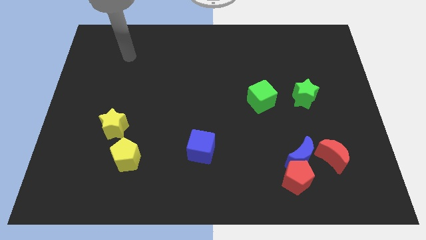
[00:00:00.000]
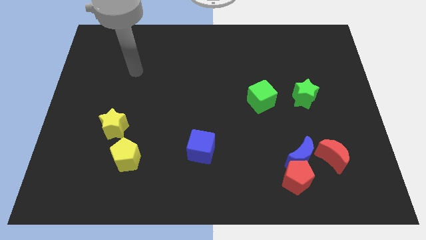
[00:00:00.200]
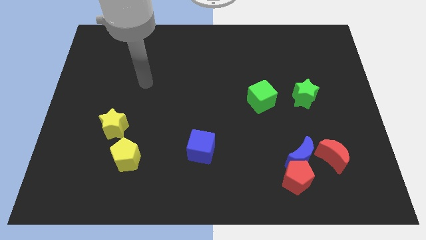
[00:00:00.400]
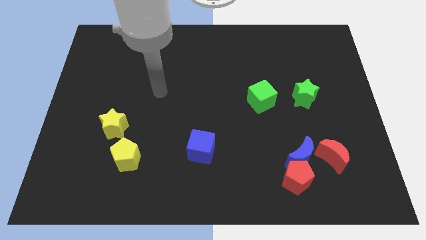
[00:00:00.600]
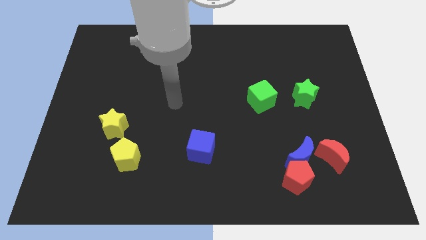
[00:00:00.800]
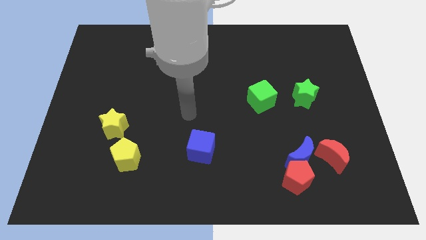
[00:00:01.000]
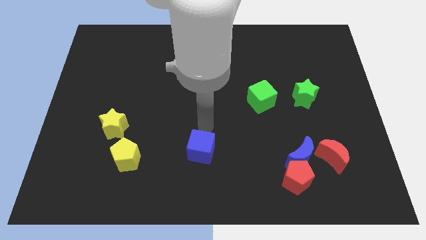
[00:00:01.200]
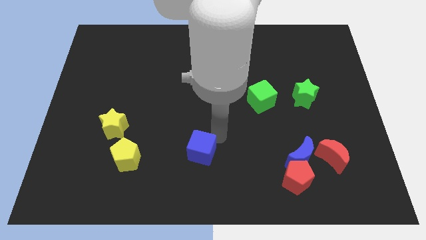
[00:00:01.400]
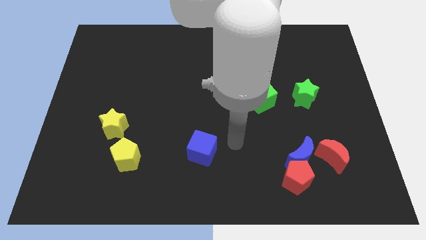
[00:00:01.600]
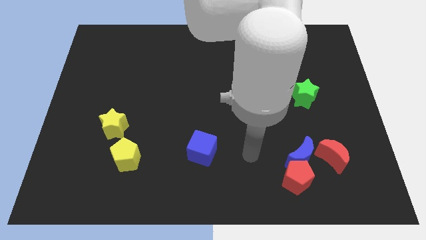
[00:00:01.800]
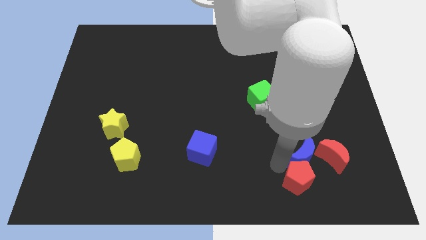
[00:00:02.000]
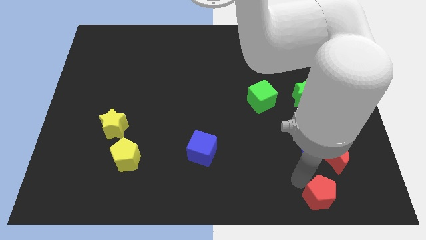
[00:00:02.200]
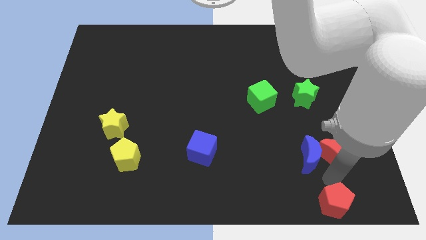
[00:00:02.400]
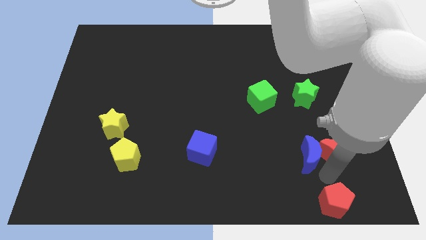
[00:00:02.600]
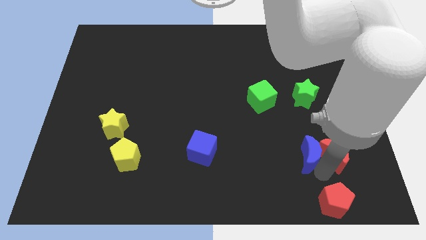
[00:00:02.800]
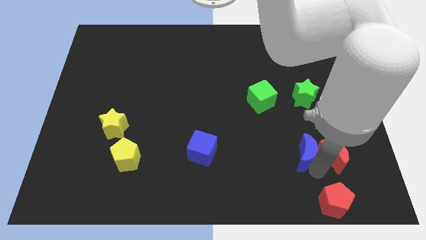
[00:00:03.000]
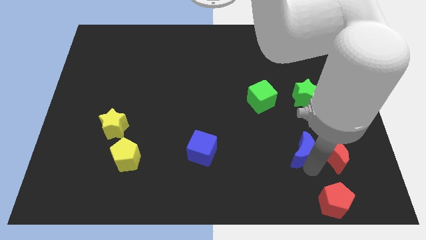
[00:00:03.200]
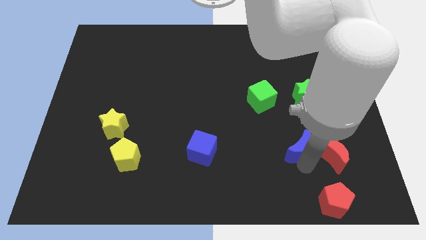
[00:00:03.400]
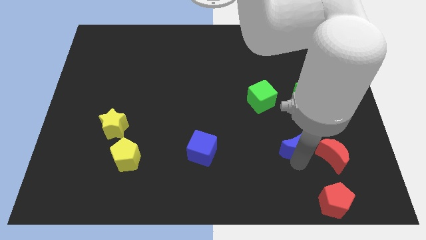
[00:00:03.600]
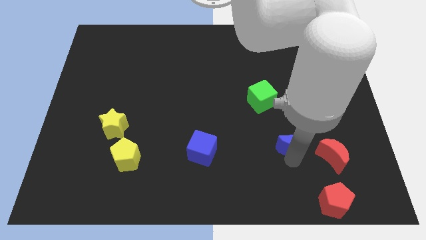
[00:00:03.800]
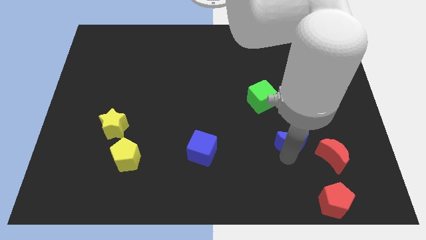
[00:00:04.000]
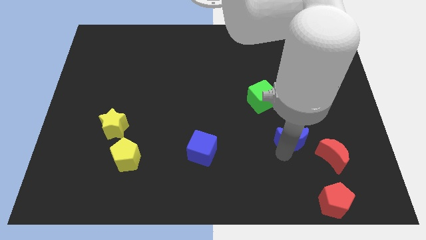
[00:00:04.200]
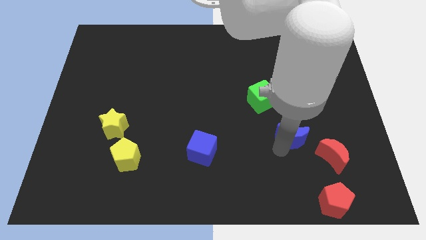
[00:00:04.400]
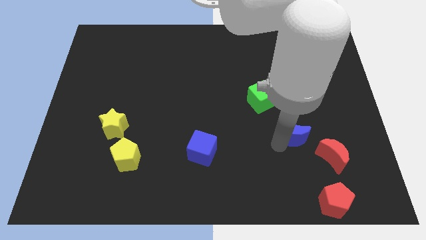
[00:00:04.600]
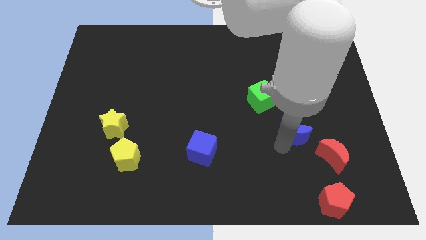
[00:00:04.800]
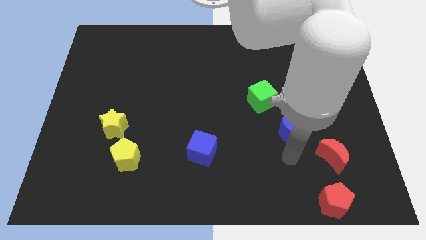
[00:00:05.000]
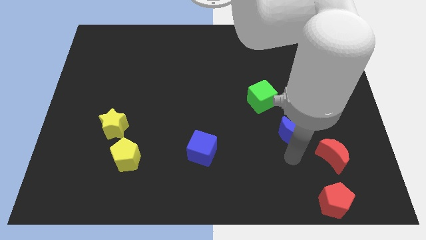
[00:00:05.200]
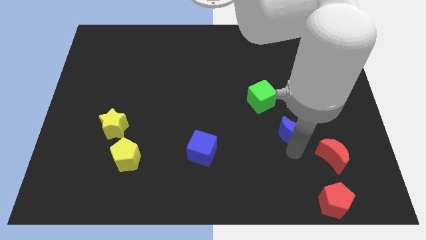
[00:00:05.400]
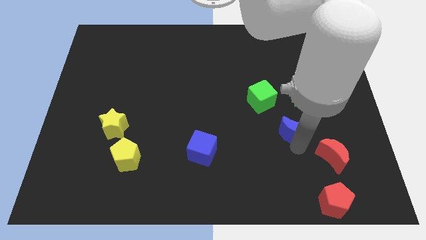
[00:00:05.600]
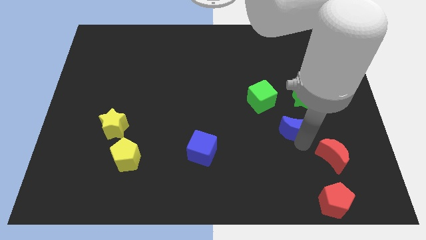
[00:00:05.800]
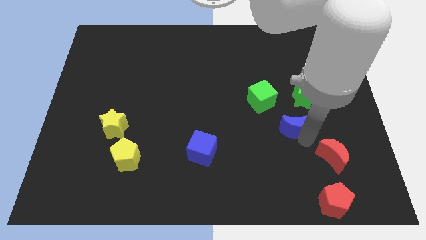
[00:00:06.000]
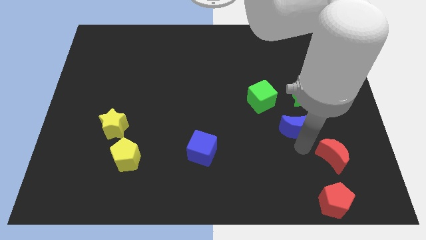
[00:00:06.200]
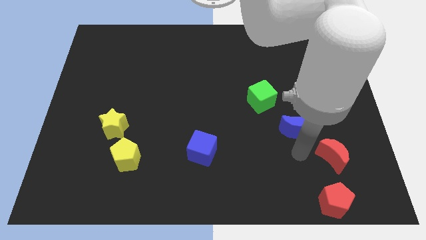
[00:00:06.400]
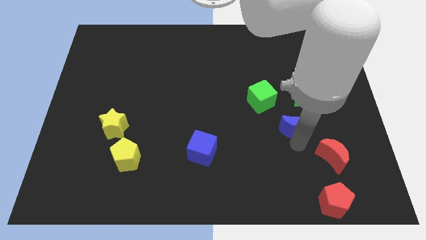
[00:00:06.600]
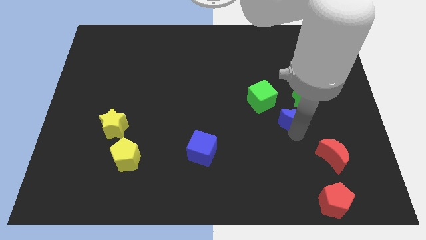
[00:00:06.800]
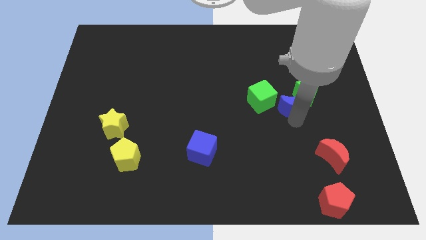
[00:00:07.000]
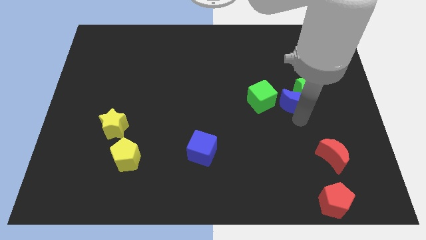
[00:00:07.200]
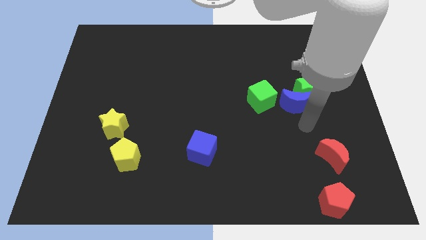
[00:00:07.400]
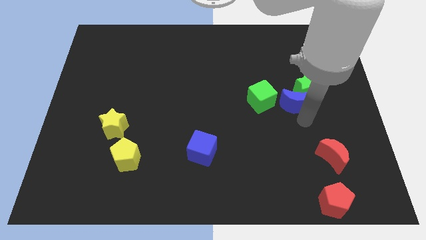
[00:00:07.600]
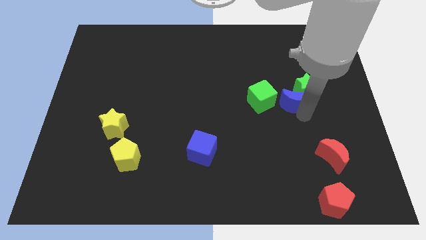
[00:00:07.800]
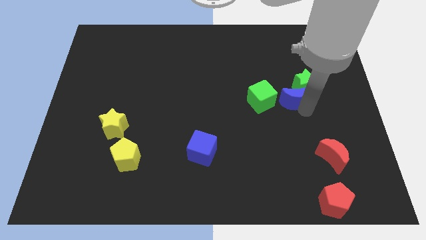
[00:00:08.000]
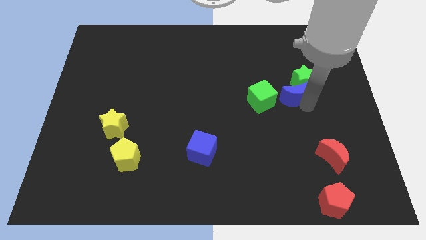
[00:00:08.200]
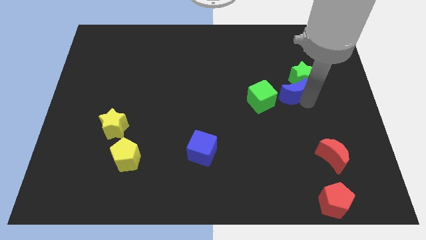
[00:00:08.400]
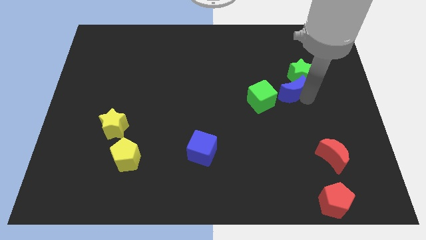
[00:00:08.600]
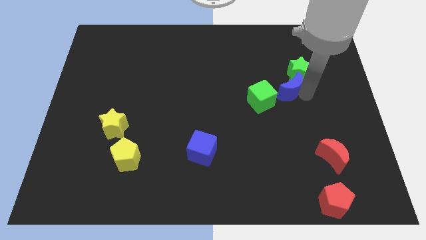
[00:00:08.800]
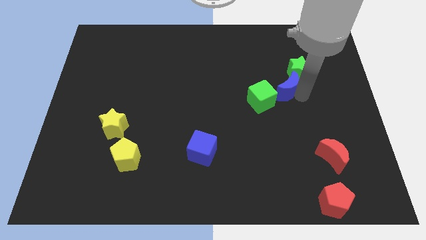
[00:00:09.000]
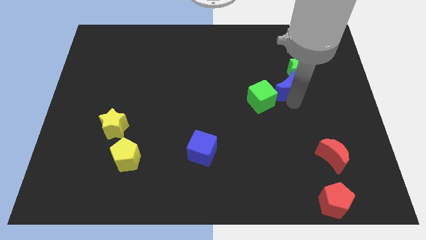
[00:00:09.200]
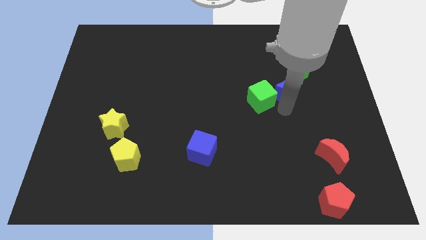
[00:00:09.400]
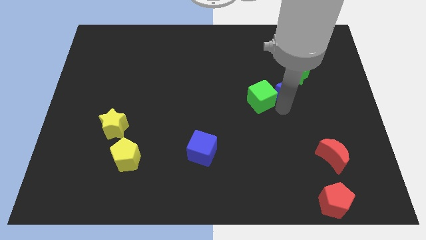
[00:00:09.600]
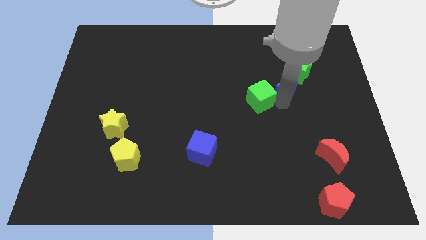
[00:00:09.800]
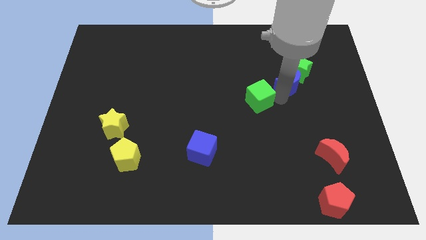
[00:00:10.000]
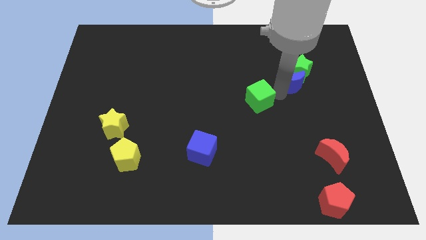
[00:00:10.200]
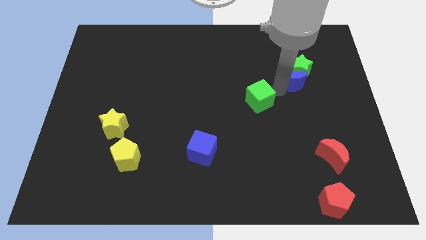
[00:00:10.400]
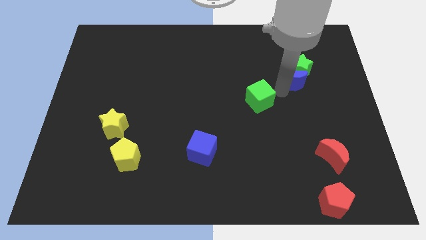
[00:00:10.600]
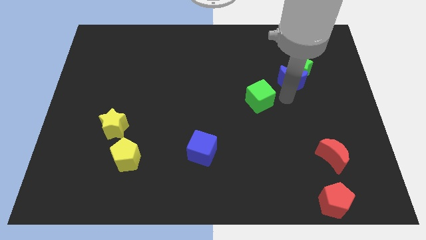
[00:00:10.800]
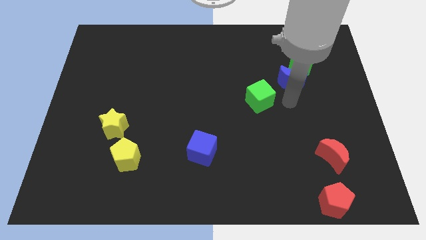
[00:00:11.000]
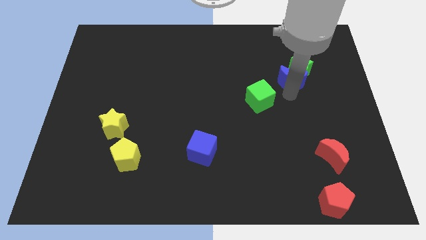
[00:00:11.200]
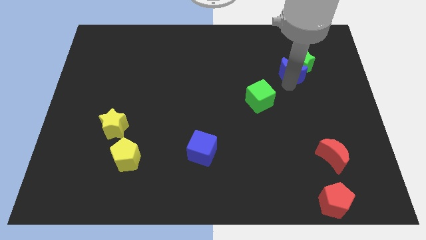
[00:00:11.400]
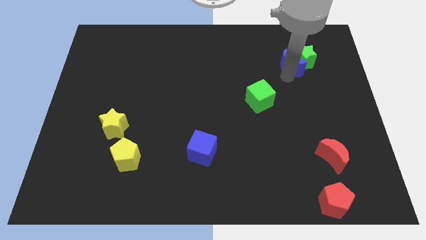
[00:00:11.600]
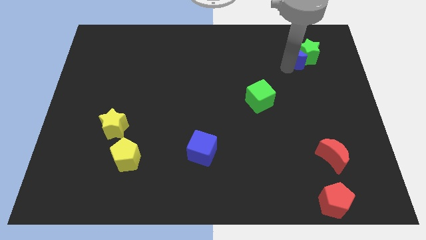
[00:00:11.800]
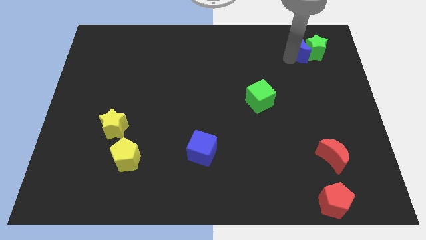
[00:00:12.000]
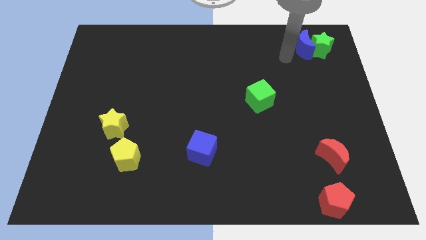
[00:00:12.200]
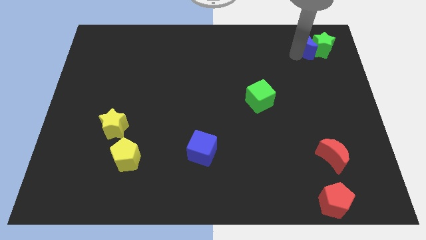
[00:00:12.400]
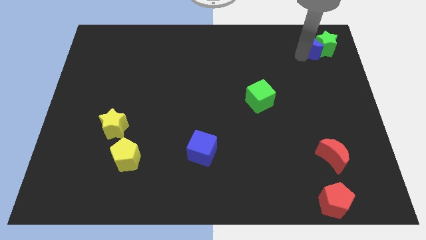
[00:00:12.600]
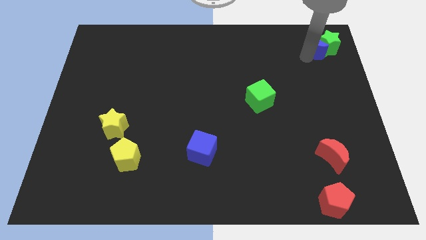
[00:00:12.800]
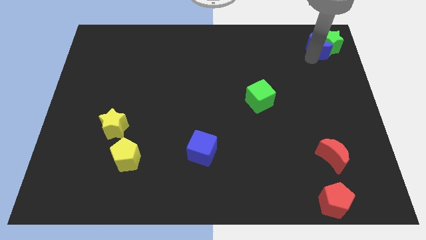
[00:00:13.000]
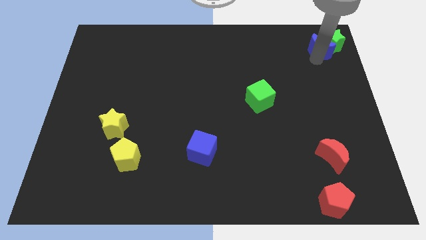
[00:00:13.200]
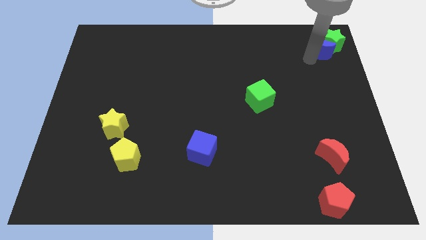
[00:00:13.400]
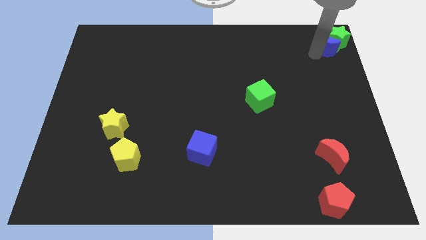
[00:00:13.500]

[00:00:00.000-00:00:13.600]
slide the blue moon to the upper right corner
